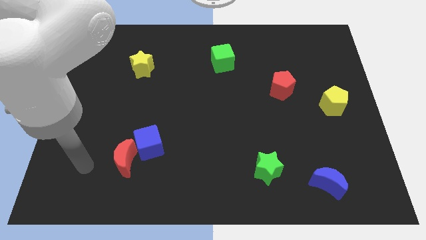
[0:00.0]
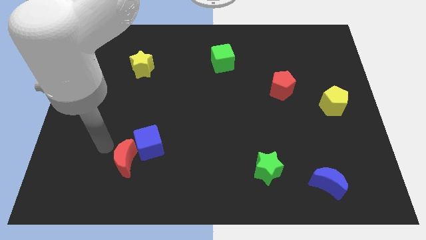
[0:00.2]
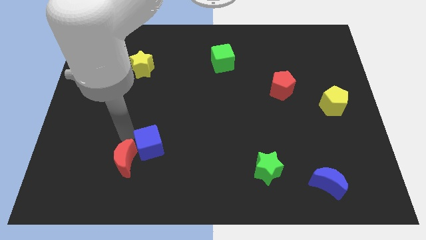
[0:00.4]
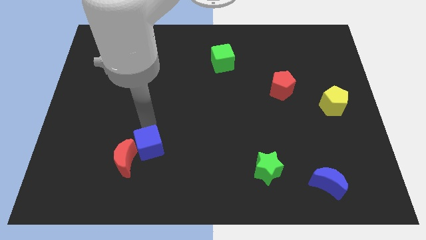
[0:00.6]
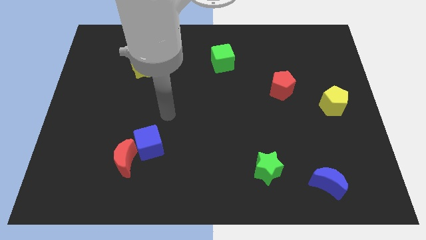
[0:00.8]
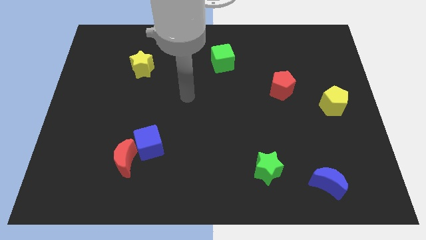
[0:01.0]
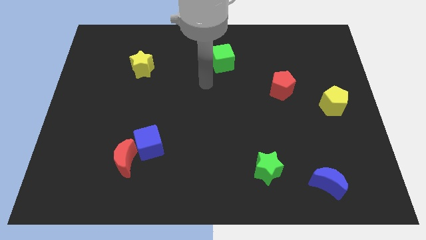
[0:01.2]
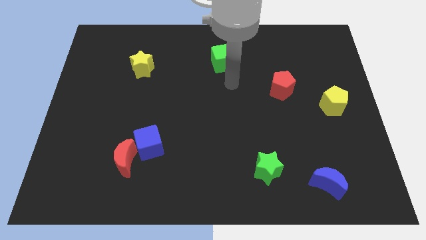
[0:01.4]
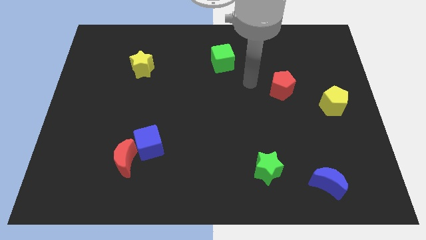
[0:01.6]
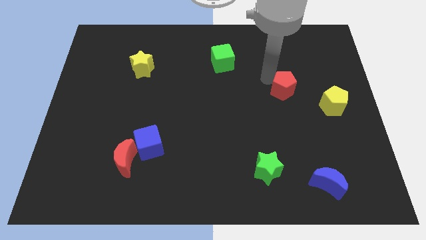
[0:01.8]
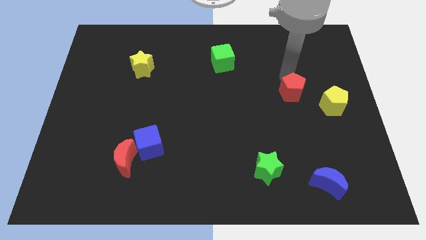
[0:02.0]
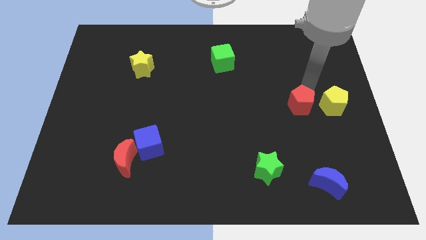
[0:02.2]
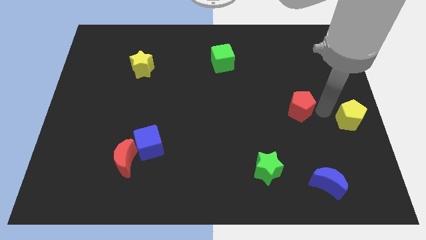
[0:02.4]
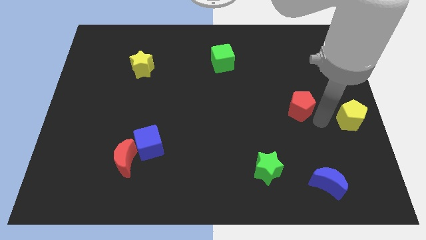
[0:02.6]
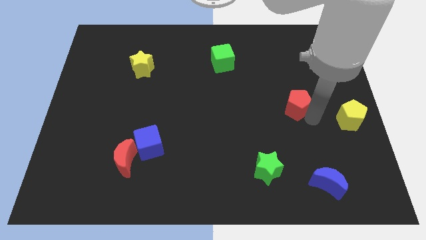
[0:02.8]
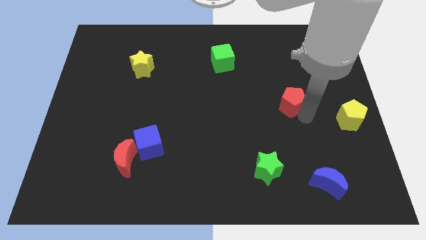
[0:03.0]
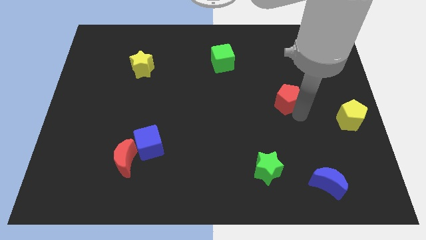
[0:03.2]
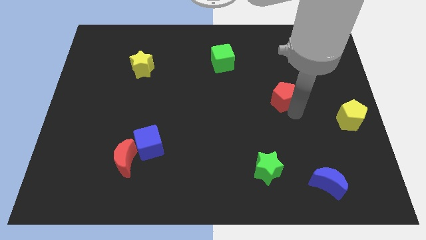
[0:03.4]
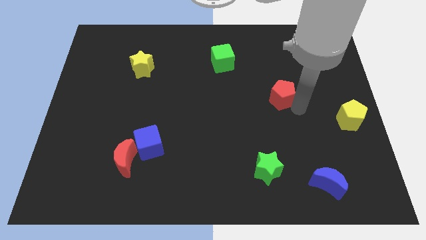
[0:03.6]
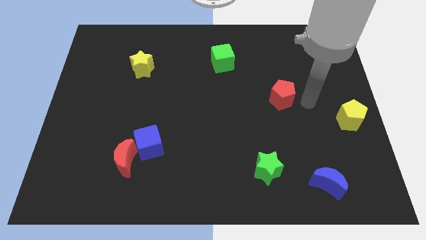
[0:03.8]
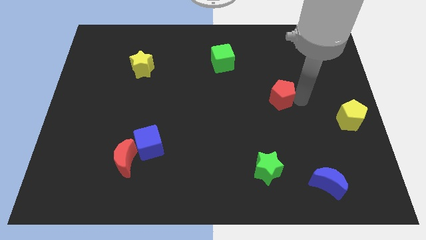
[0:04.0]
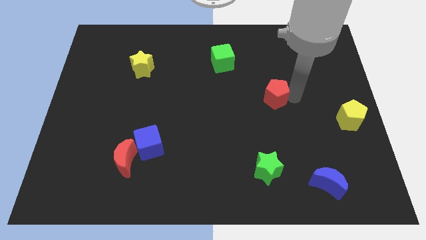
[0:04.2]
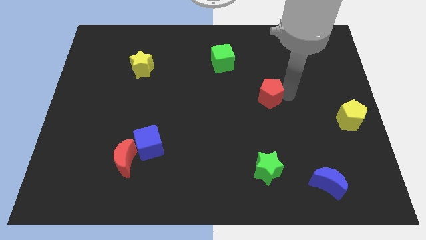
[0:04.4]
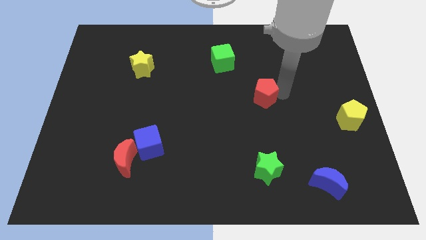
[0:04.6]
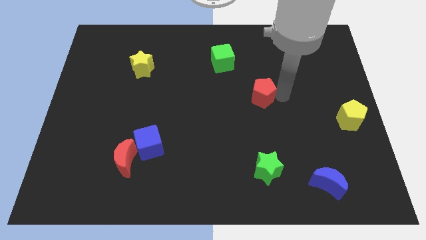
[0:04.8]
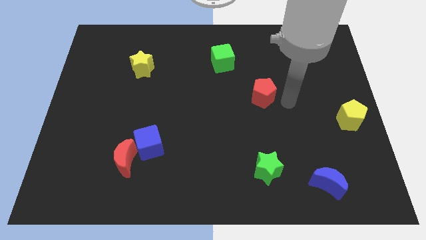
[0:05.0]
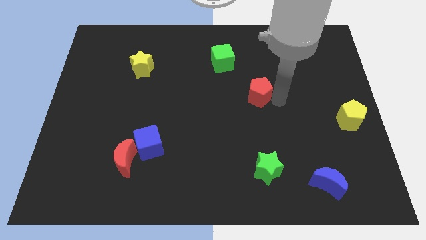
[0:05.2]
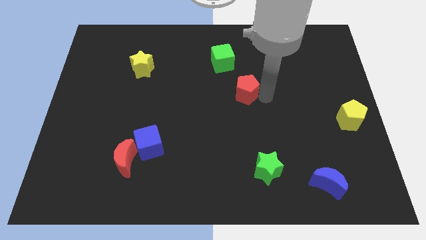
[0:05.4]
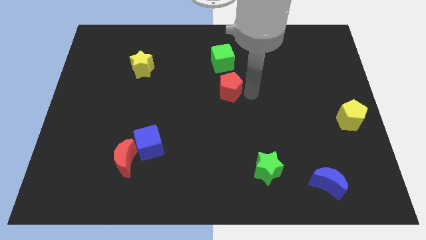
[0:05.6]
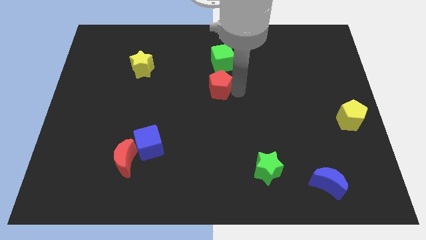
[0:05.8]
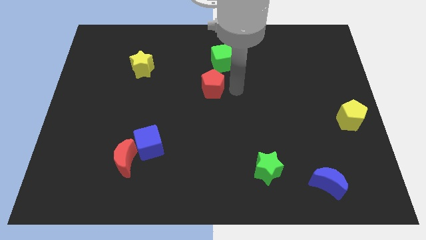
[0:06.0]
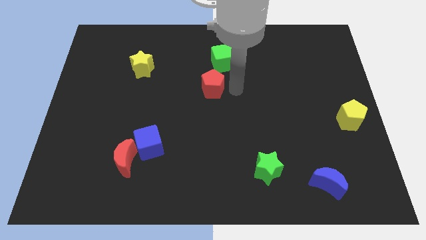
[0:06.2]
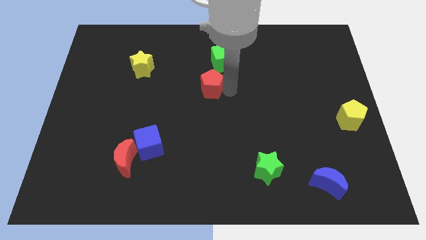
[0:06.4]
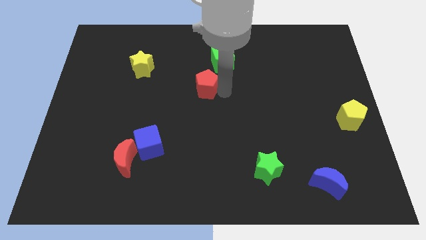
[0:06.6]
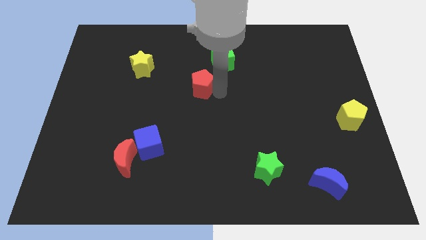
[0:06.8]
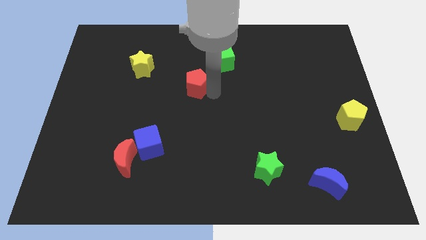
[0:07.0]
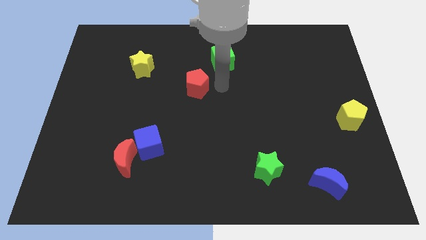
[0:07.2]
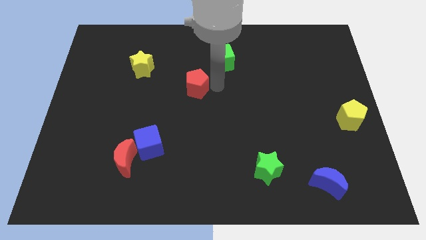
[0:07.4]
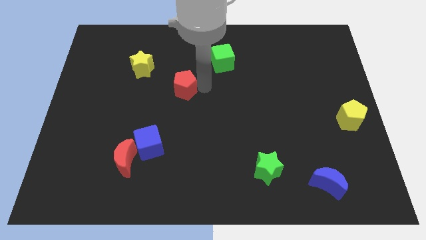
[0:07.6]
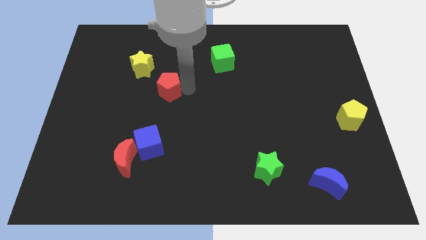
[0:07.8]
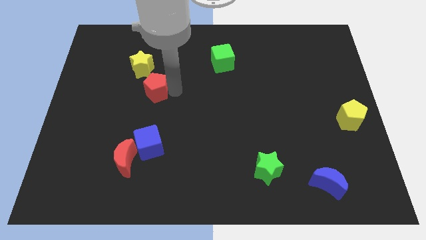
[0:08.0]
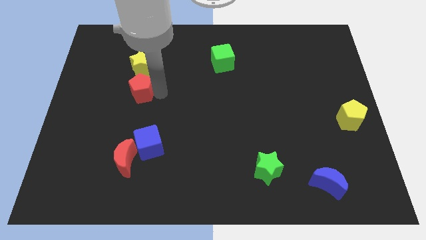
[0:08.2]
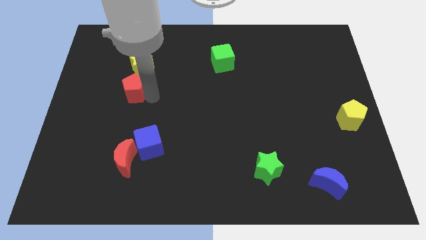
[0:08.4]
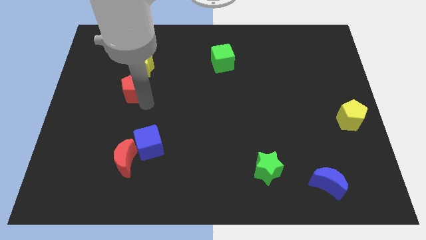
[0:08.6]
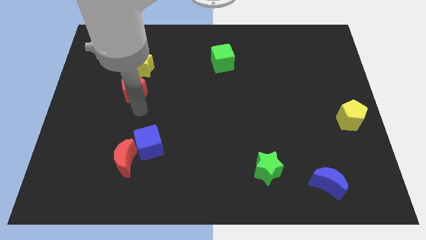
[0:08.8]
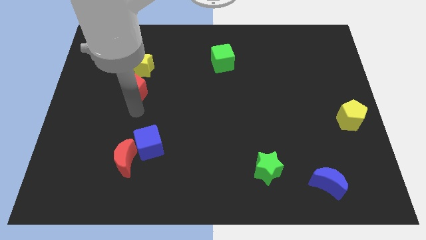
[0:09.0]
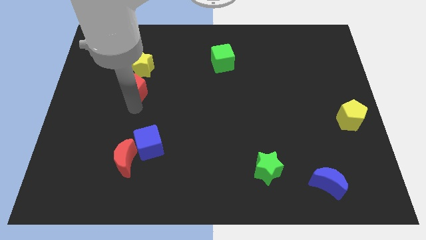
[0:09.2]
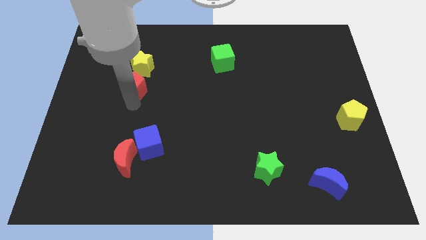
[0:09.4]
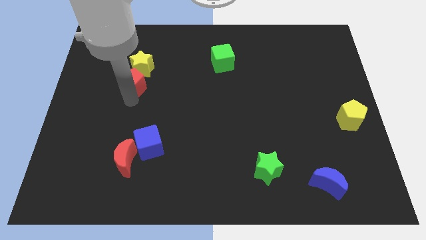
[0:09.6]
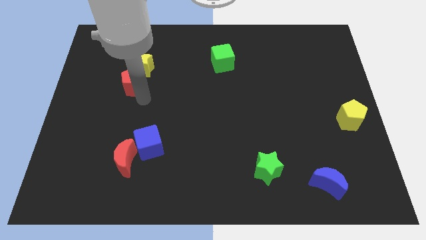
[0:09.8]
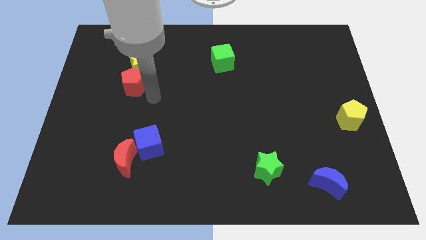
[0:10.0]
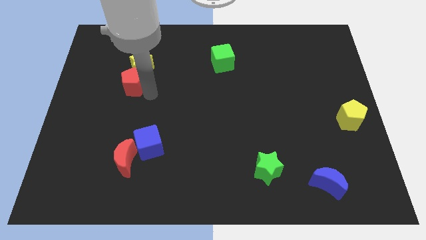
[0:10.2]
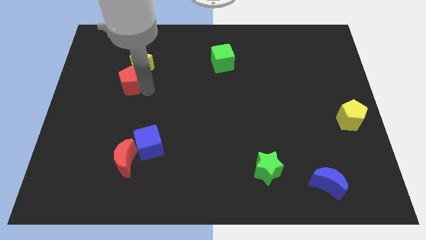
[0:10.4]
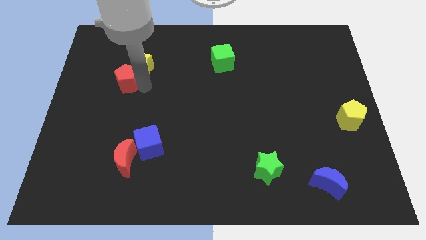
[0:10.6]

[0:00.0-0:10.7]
push the red pentagon left of the yellow star
